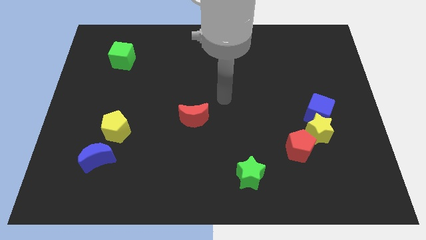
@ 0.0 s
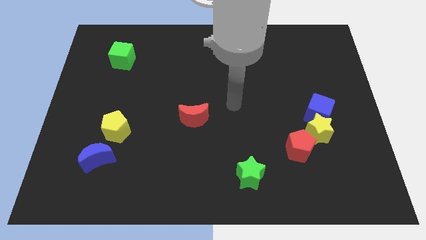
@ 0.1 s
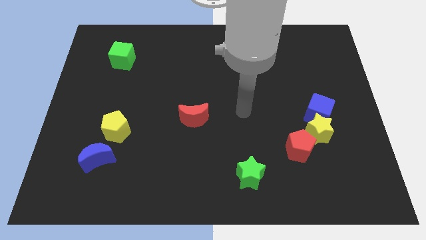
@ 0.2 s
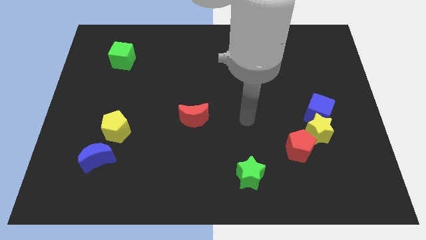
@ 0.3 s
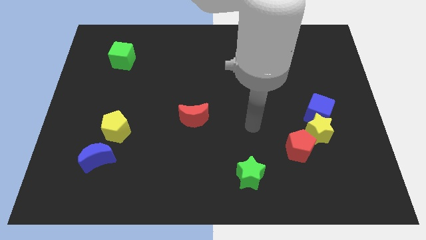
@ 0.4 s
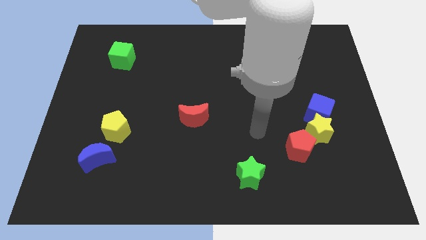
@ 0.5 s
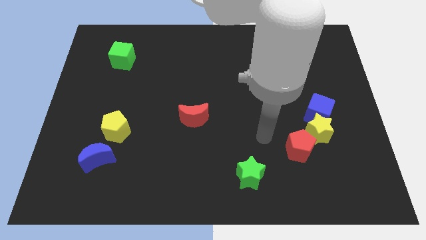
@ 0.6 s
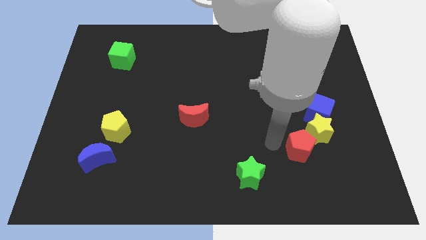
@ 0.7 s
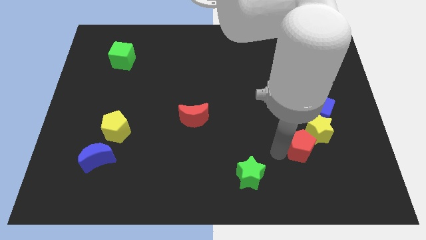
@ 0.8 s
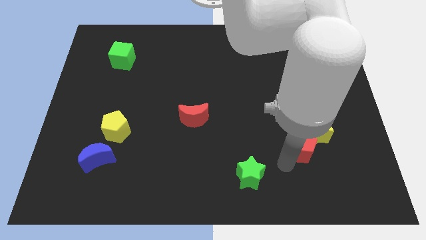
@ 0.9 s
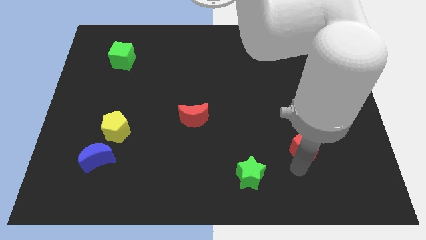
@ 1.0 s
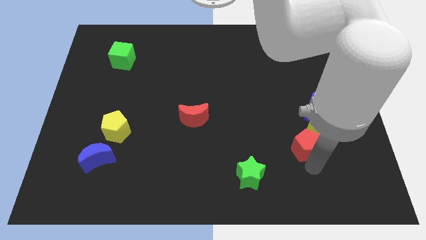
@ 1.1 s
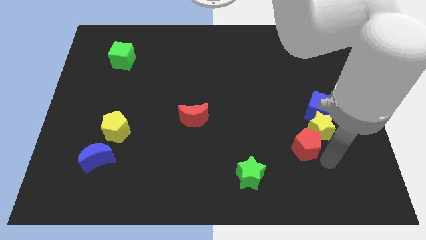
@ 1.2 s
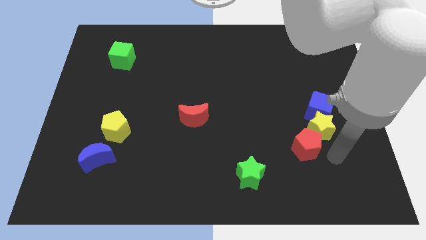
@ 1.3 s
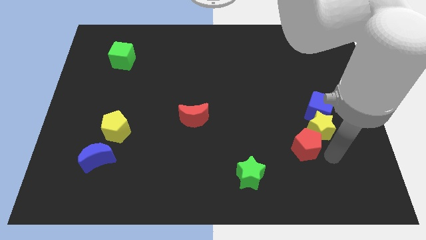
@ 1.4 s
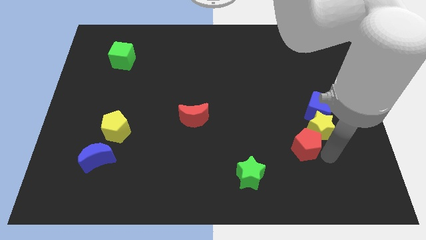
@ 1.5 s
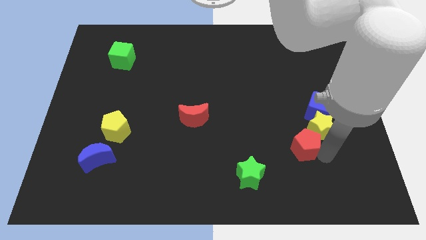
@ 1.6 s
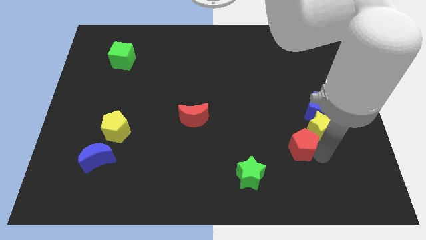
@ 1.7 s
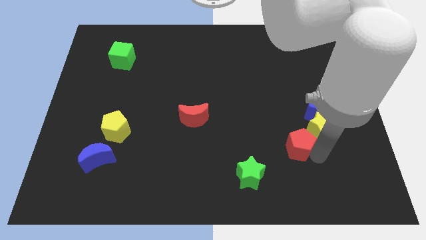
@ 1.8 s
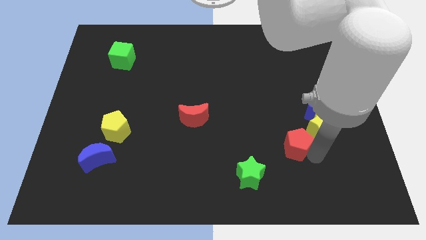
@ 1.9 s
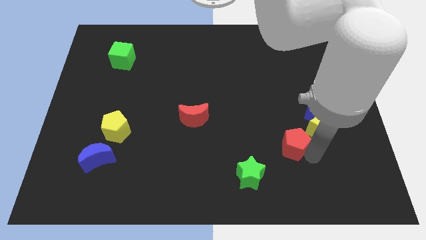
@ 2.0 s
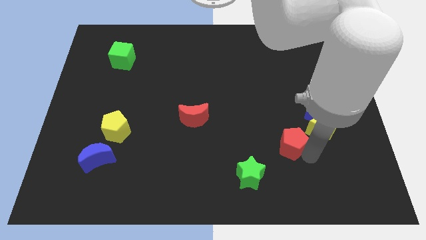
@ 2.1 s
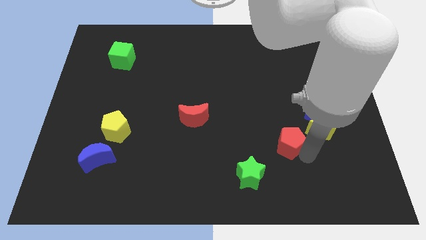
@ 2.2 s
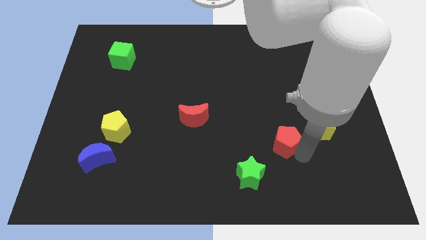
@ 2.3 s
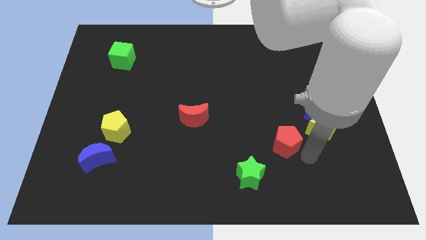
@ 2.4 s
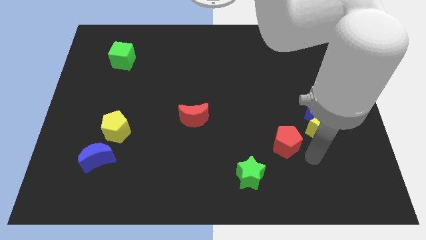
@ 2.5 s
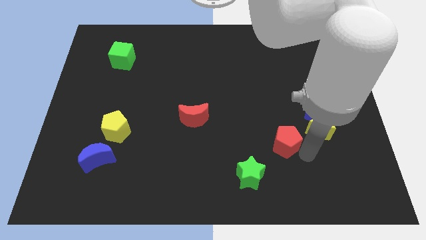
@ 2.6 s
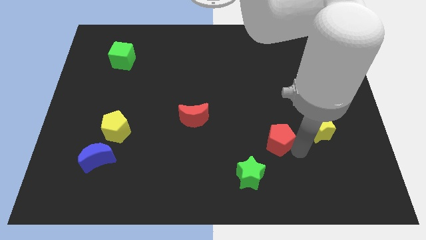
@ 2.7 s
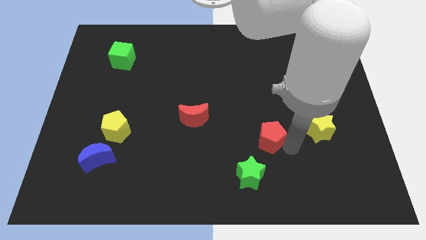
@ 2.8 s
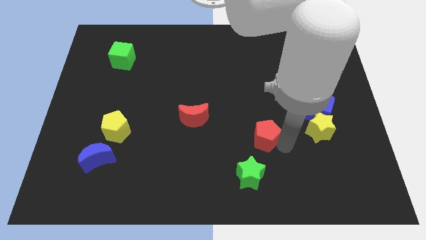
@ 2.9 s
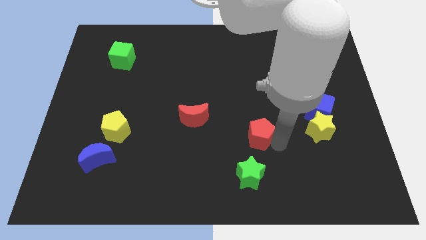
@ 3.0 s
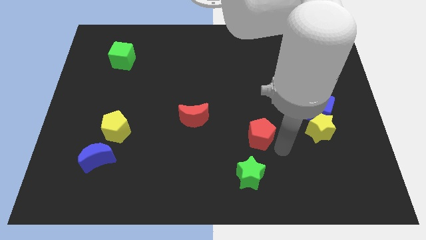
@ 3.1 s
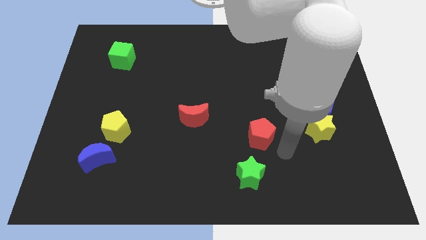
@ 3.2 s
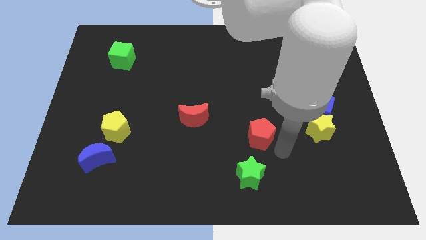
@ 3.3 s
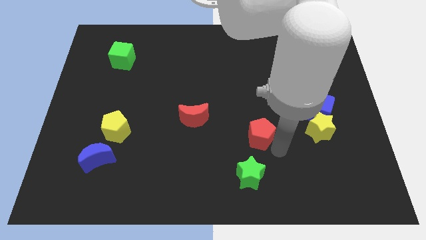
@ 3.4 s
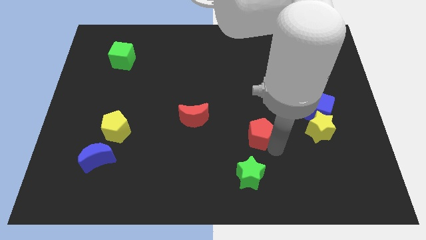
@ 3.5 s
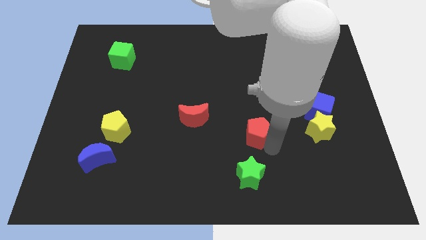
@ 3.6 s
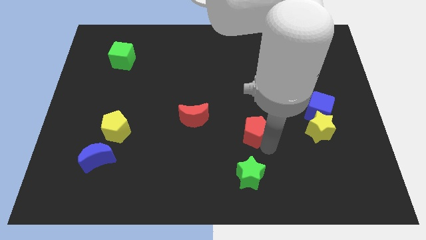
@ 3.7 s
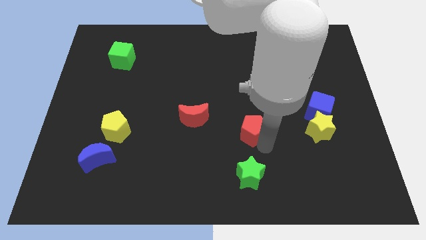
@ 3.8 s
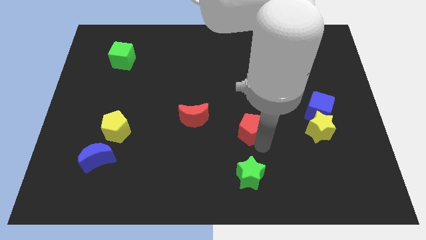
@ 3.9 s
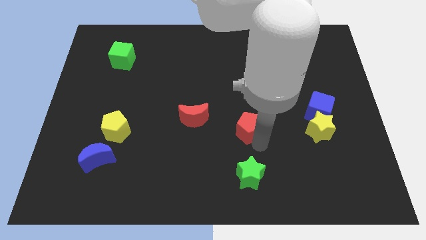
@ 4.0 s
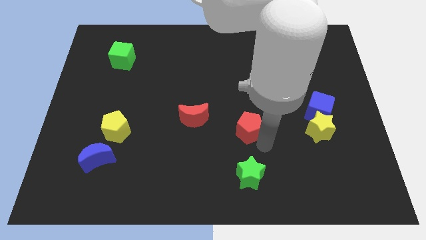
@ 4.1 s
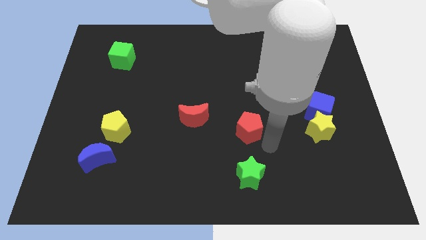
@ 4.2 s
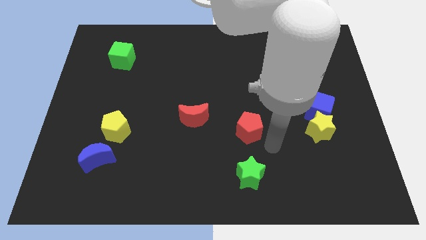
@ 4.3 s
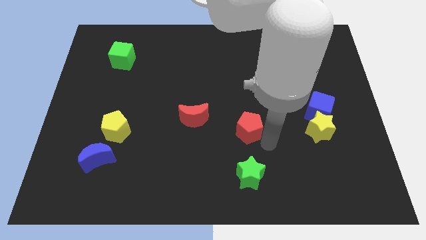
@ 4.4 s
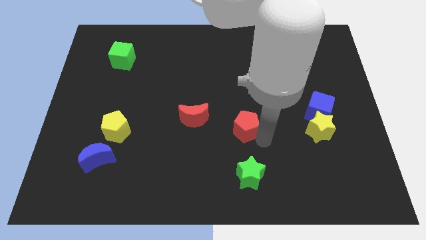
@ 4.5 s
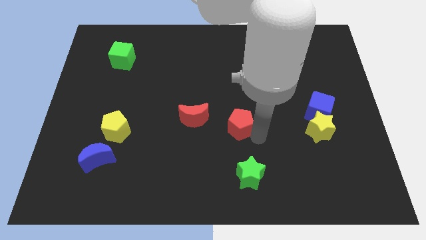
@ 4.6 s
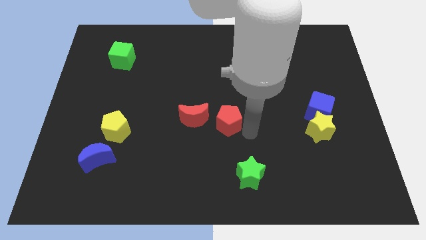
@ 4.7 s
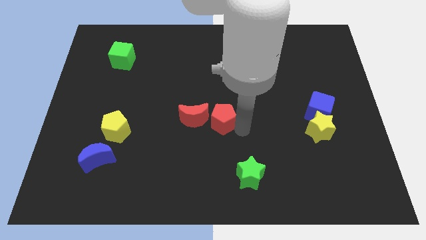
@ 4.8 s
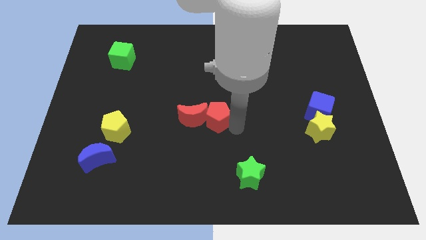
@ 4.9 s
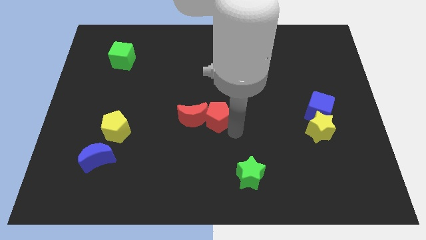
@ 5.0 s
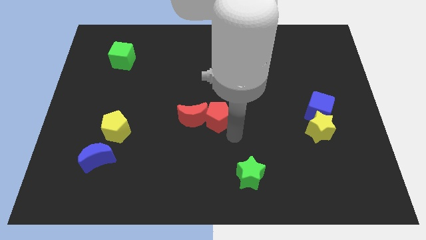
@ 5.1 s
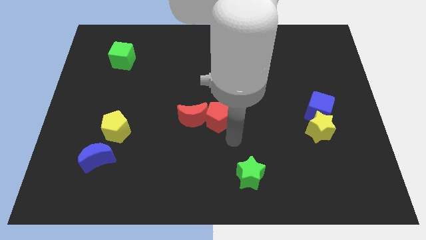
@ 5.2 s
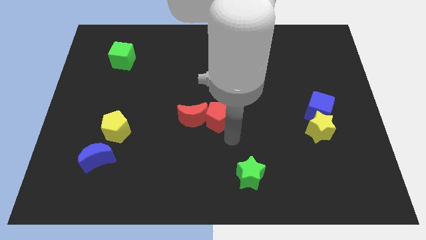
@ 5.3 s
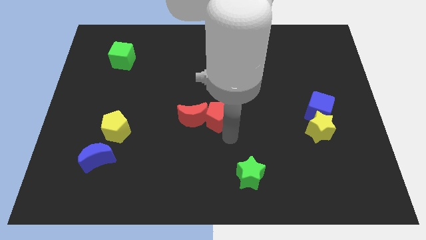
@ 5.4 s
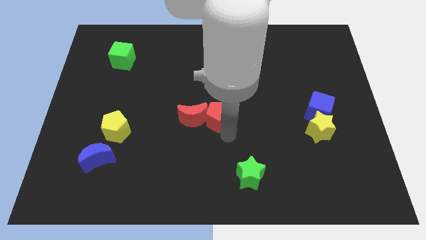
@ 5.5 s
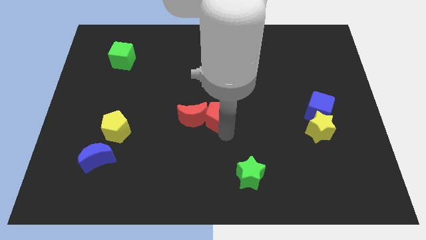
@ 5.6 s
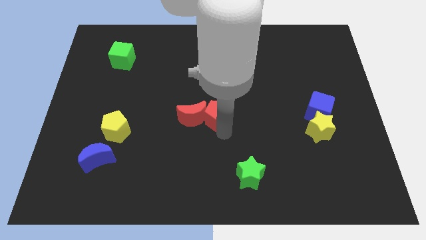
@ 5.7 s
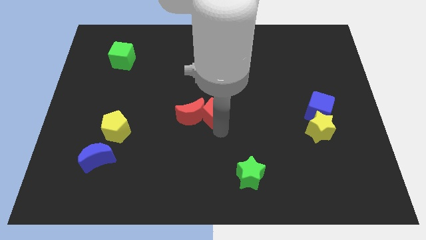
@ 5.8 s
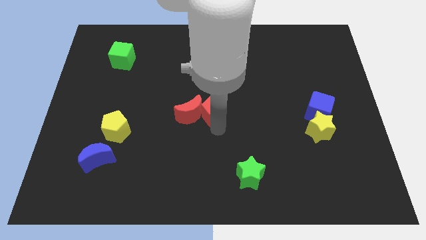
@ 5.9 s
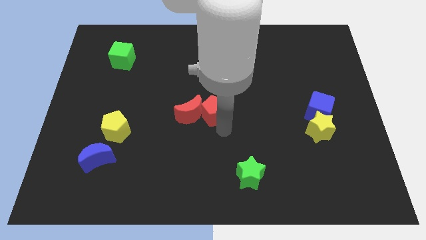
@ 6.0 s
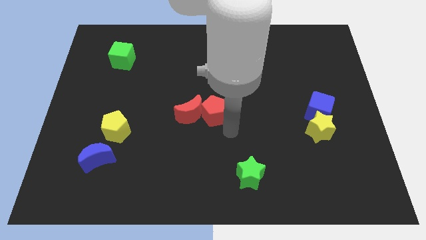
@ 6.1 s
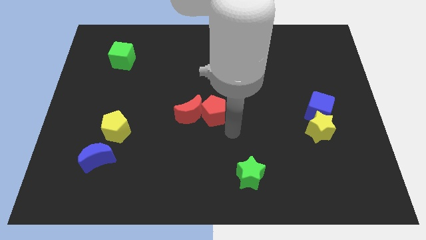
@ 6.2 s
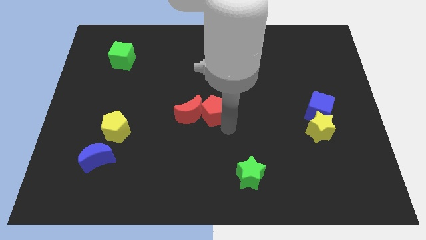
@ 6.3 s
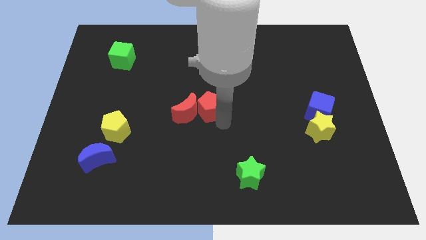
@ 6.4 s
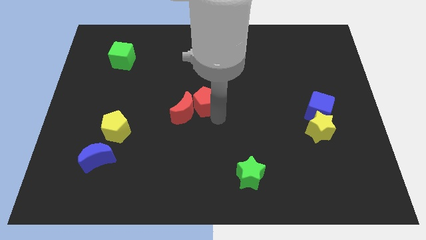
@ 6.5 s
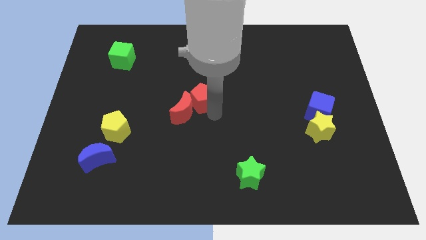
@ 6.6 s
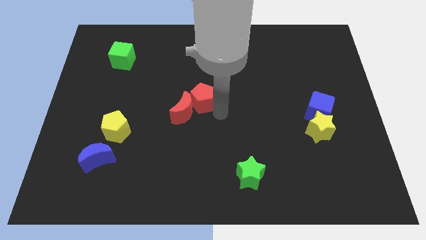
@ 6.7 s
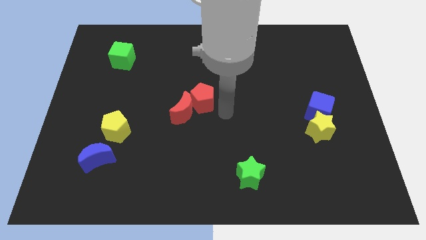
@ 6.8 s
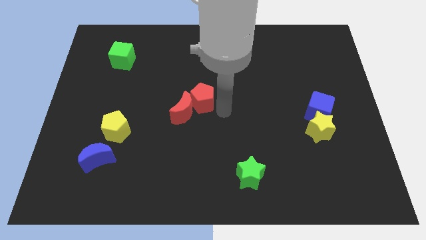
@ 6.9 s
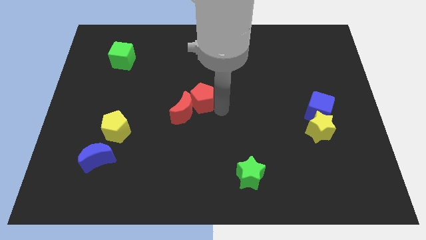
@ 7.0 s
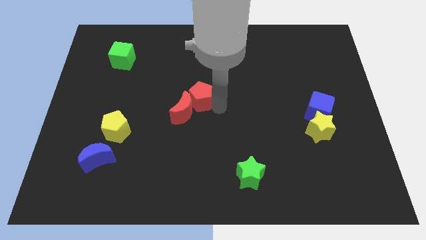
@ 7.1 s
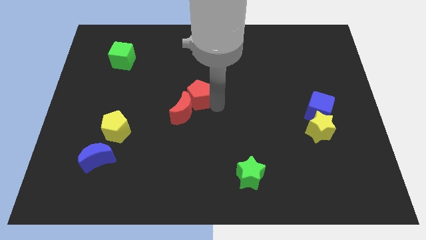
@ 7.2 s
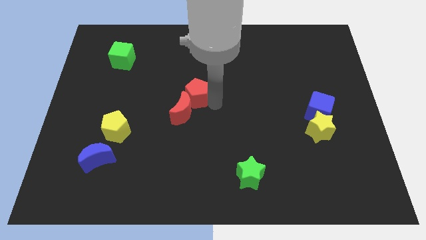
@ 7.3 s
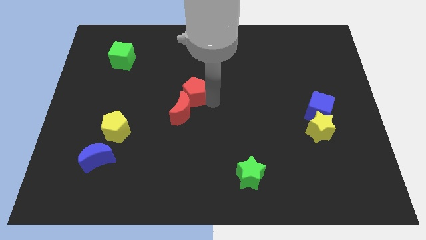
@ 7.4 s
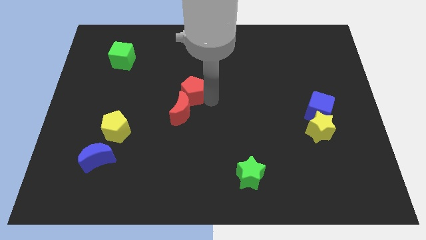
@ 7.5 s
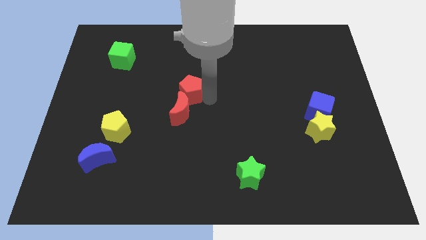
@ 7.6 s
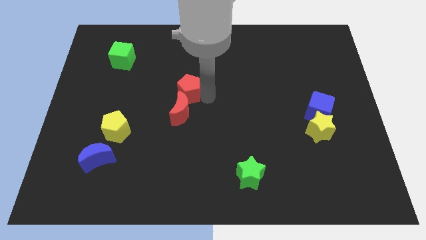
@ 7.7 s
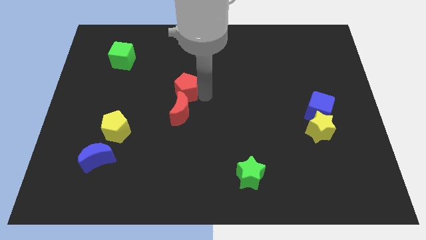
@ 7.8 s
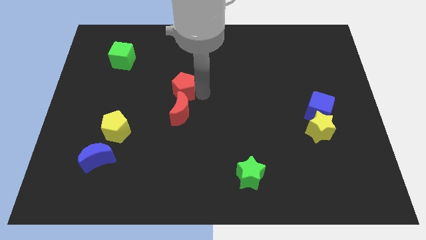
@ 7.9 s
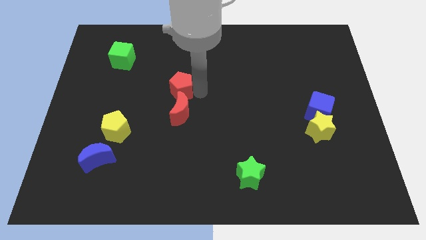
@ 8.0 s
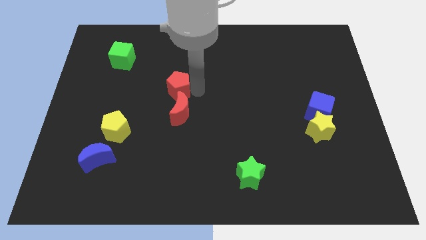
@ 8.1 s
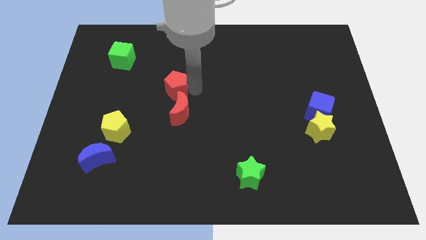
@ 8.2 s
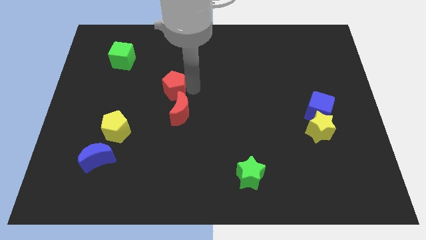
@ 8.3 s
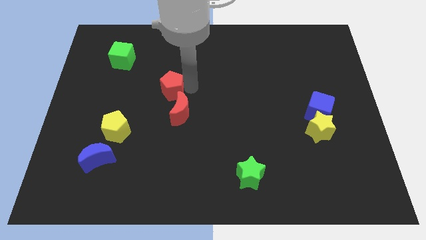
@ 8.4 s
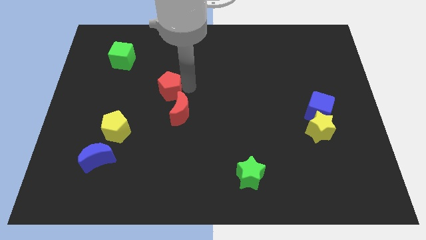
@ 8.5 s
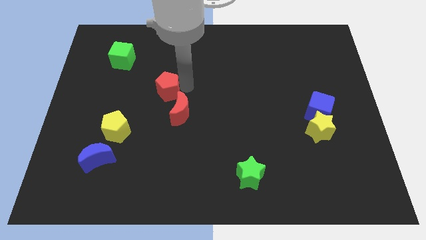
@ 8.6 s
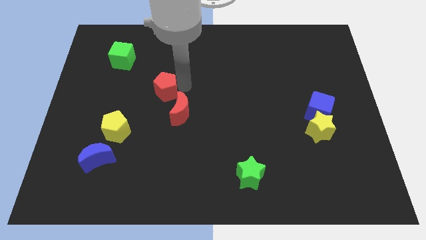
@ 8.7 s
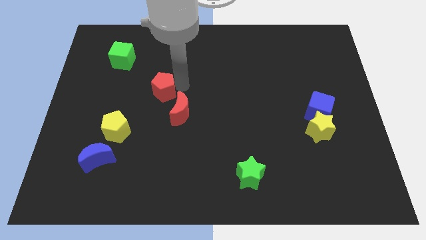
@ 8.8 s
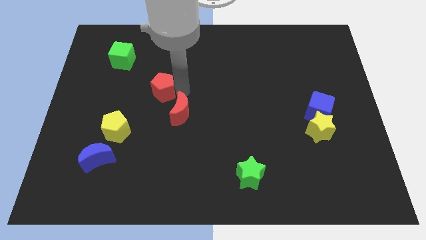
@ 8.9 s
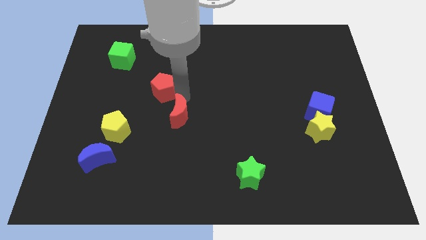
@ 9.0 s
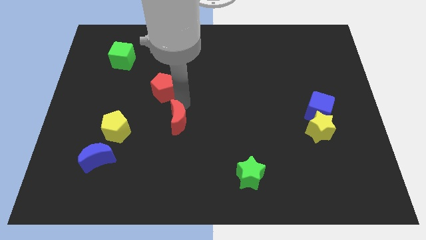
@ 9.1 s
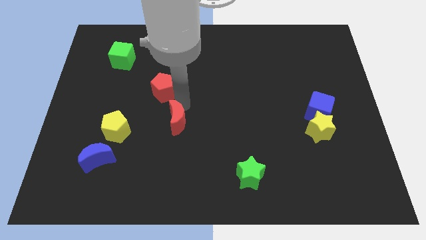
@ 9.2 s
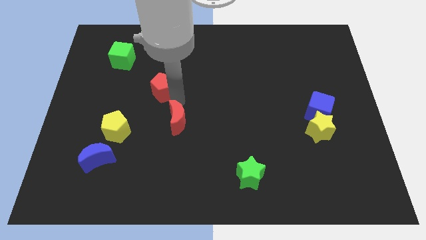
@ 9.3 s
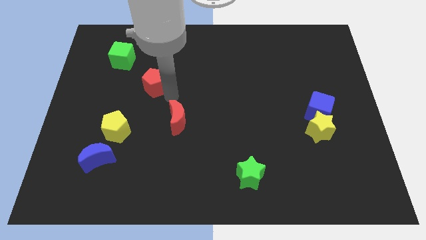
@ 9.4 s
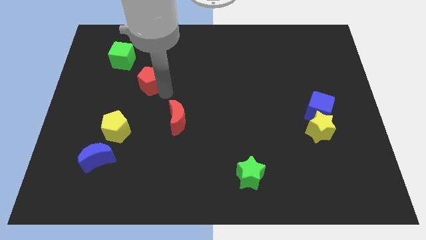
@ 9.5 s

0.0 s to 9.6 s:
slide the red pentagon diagonally down and to the right of the green cube
